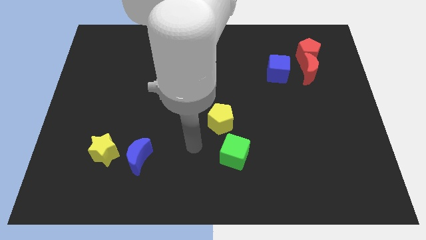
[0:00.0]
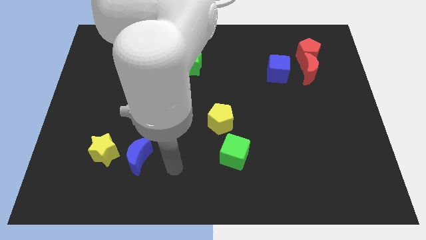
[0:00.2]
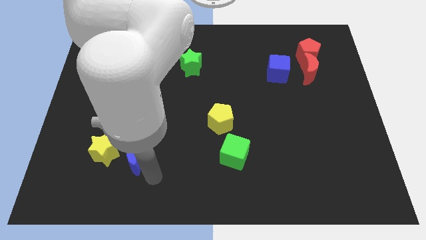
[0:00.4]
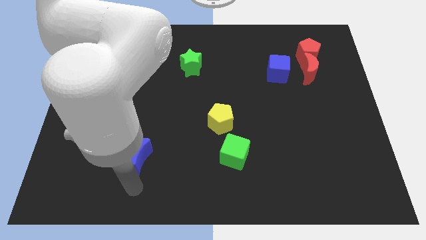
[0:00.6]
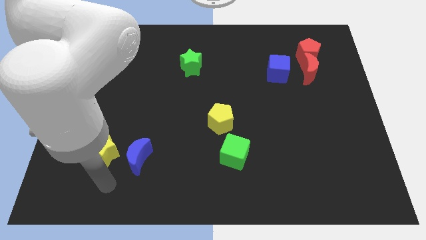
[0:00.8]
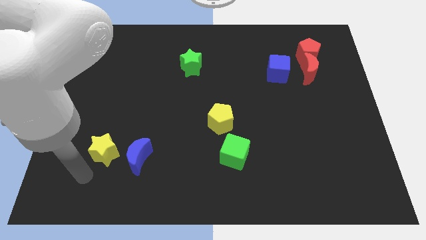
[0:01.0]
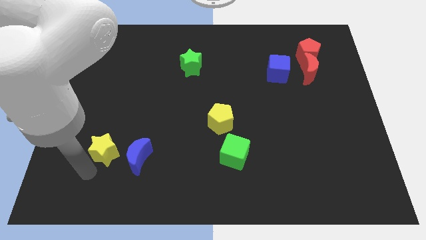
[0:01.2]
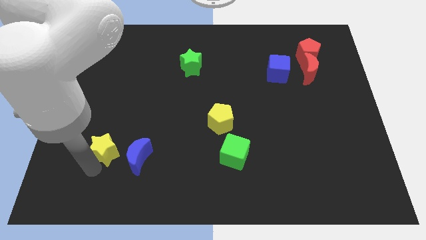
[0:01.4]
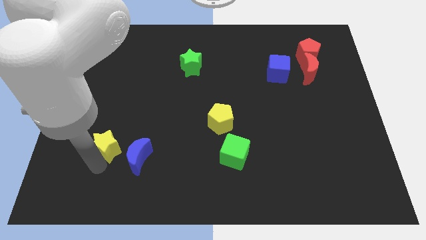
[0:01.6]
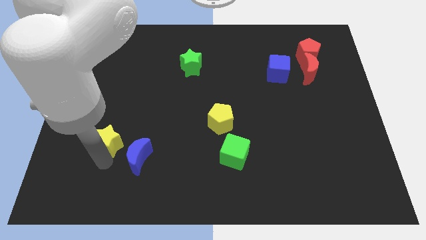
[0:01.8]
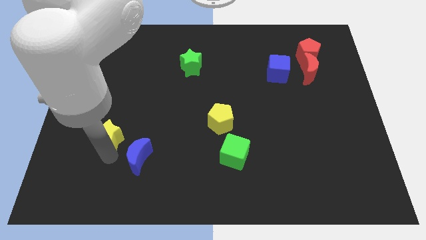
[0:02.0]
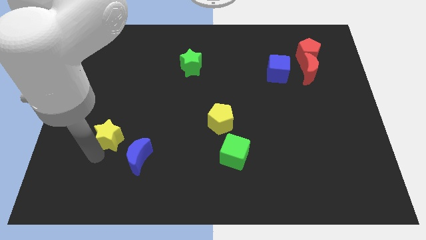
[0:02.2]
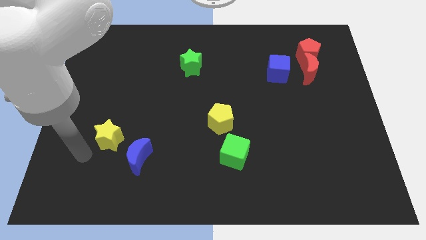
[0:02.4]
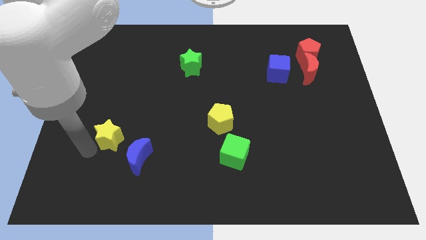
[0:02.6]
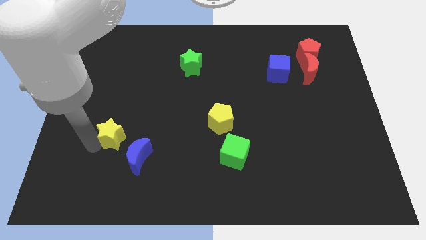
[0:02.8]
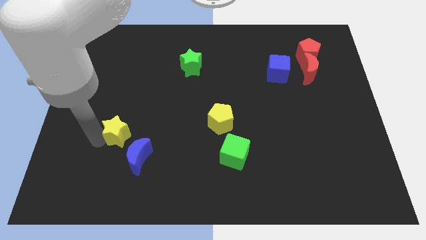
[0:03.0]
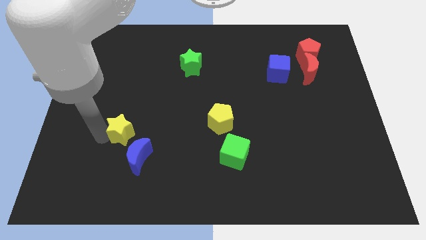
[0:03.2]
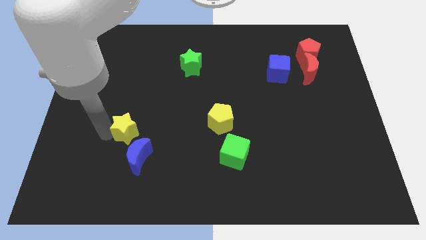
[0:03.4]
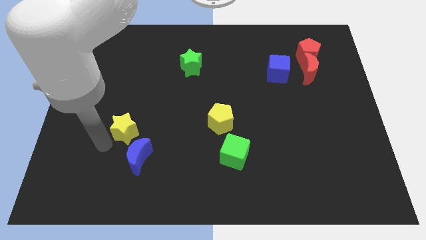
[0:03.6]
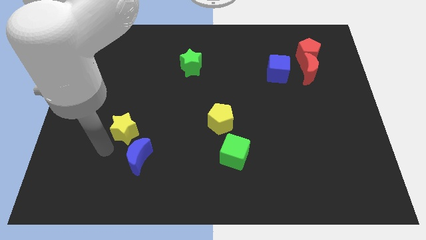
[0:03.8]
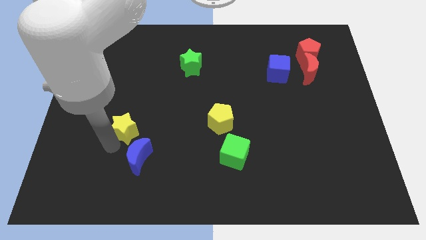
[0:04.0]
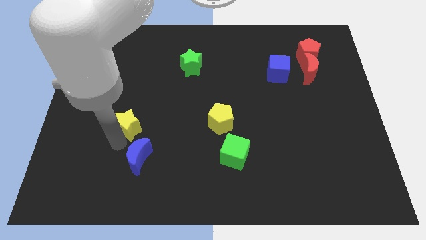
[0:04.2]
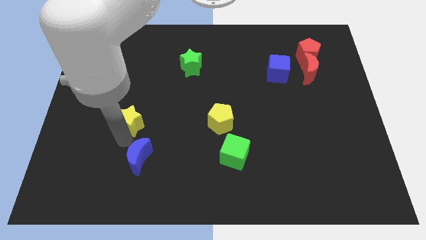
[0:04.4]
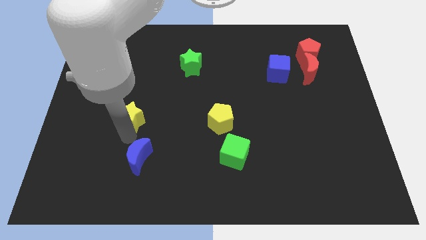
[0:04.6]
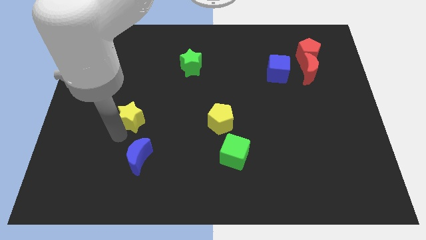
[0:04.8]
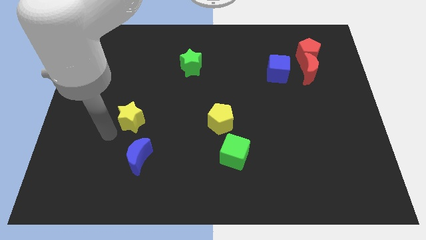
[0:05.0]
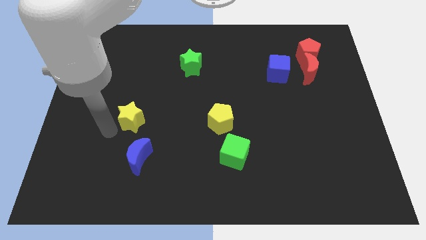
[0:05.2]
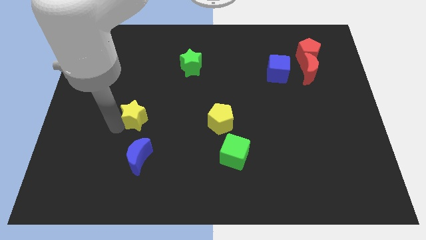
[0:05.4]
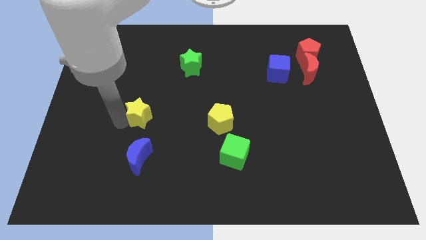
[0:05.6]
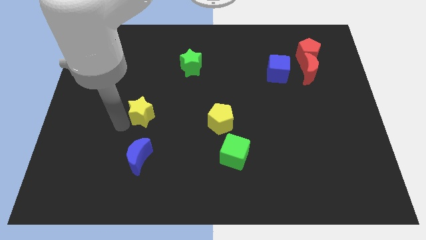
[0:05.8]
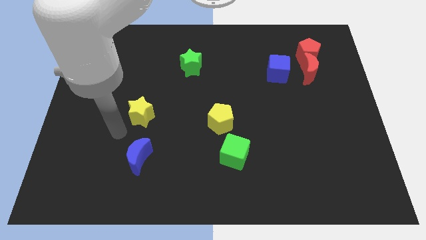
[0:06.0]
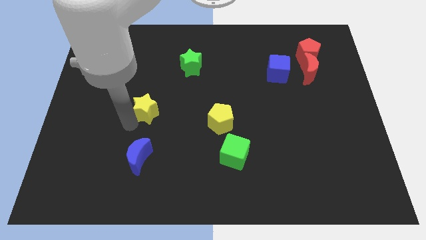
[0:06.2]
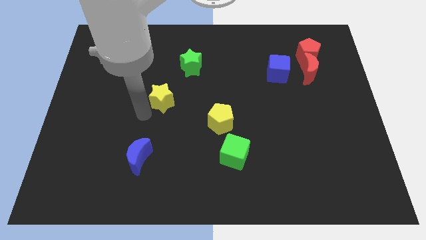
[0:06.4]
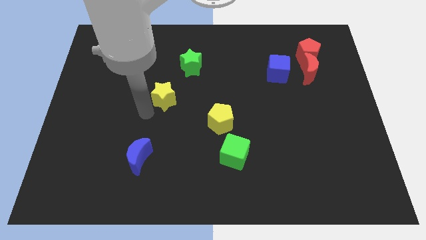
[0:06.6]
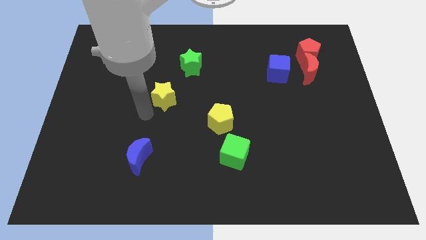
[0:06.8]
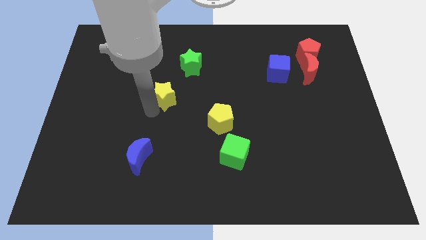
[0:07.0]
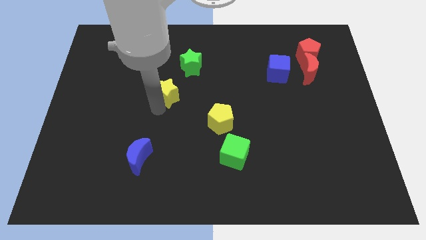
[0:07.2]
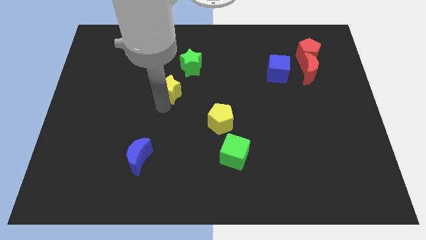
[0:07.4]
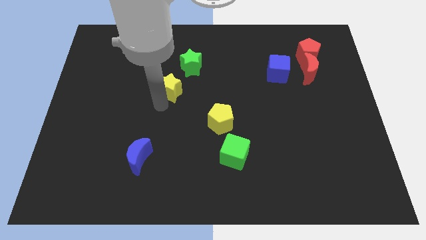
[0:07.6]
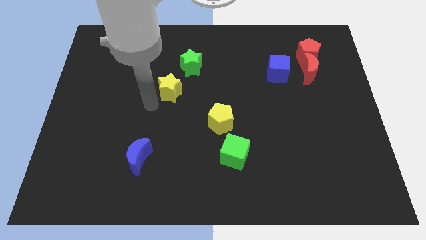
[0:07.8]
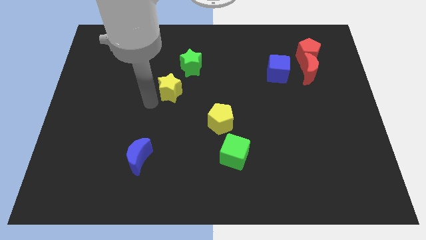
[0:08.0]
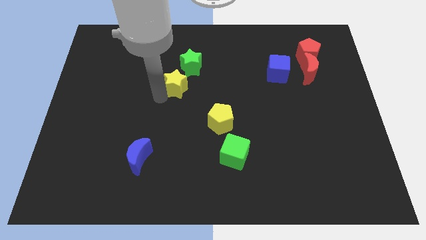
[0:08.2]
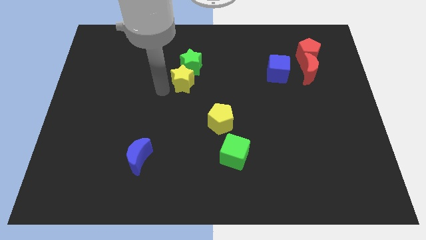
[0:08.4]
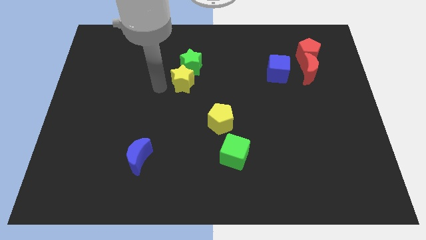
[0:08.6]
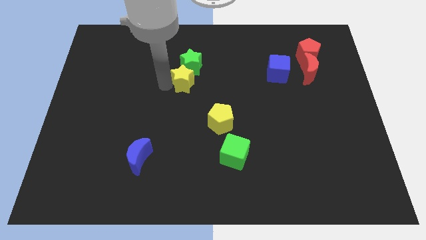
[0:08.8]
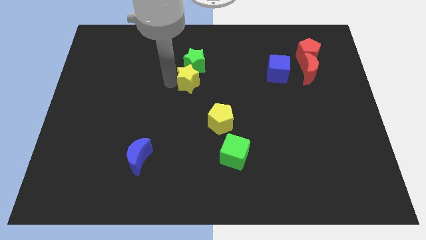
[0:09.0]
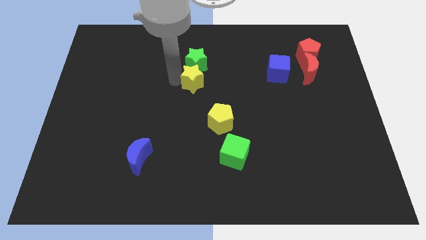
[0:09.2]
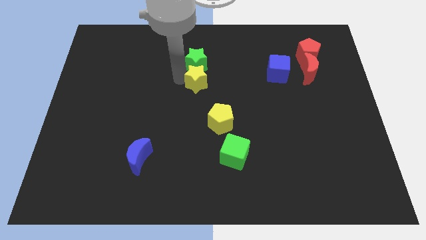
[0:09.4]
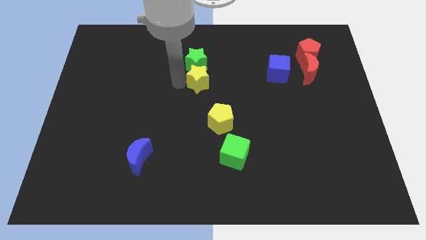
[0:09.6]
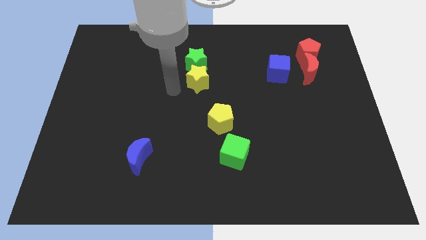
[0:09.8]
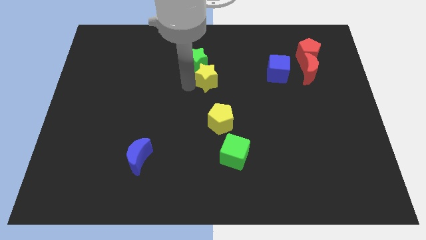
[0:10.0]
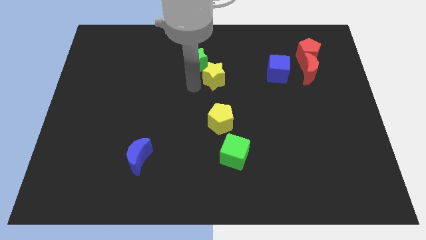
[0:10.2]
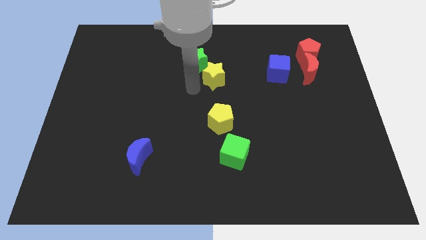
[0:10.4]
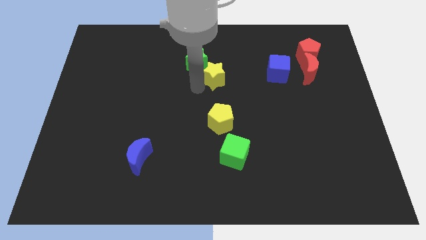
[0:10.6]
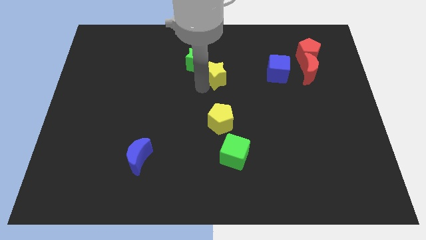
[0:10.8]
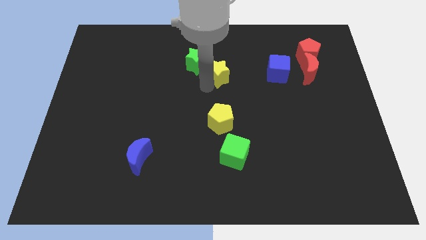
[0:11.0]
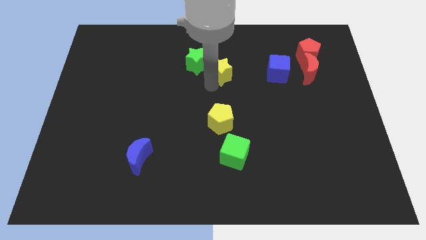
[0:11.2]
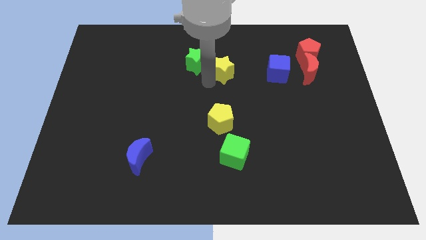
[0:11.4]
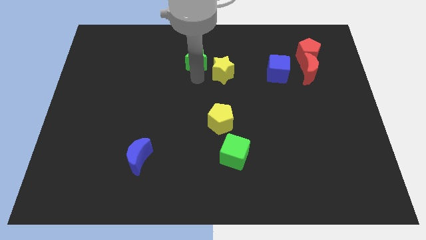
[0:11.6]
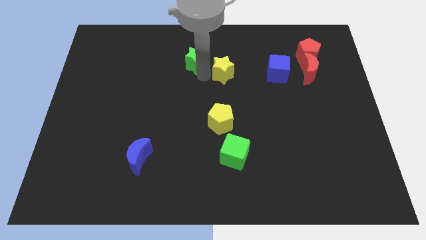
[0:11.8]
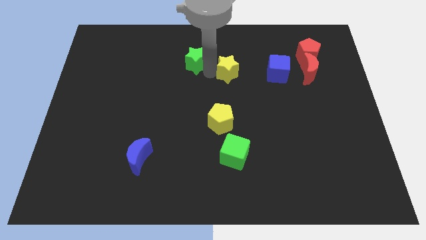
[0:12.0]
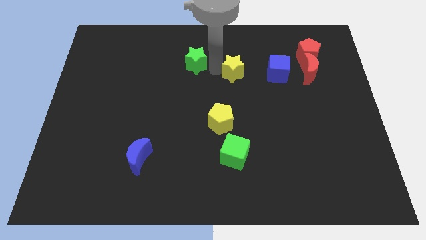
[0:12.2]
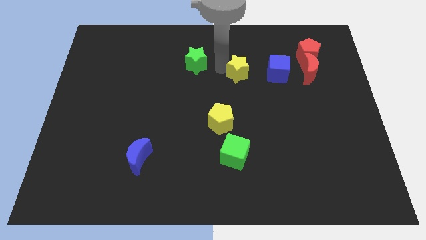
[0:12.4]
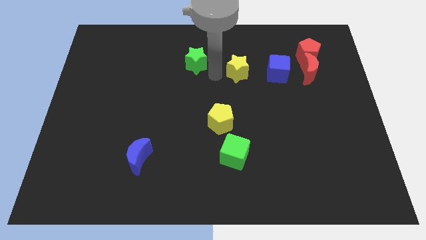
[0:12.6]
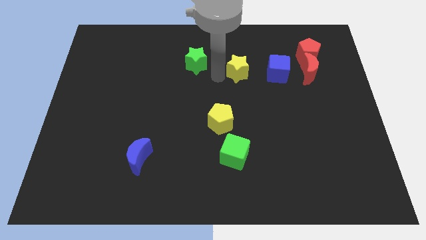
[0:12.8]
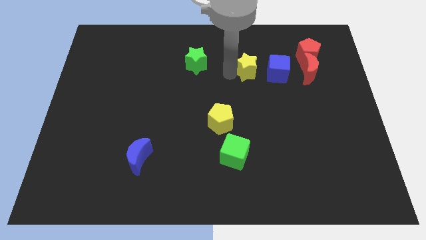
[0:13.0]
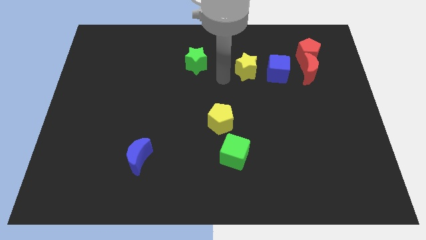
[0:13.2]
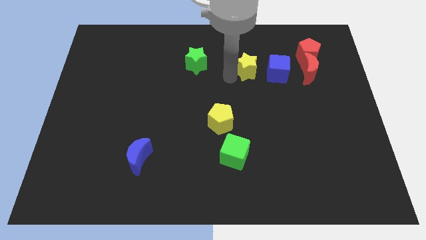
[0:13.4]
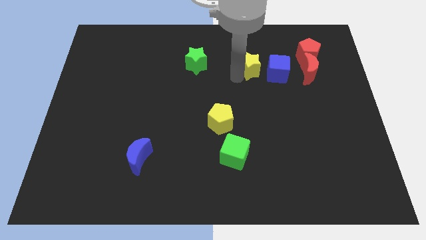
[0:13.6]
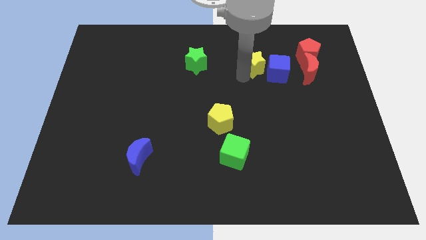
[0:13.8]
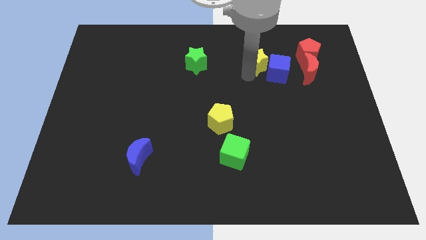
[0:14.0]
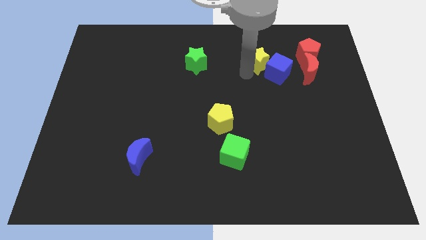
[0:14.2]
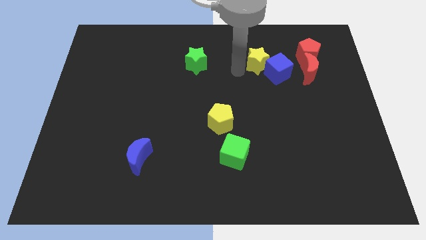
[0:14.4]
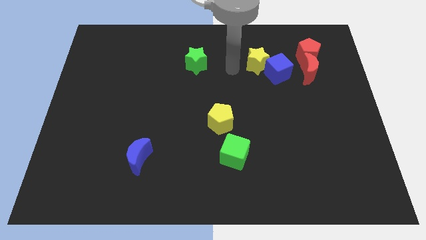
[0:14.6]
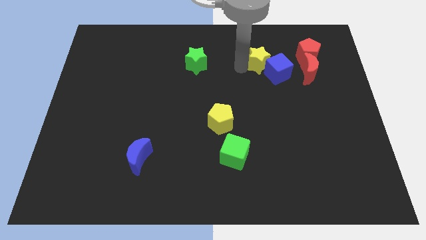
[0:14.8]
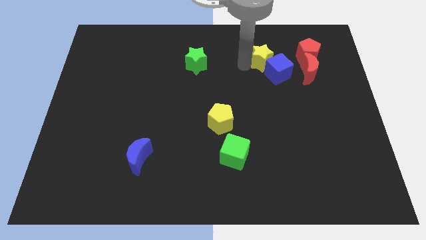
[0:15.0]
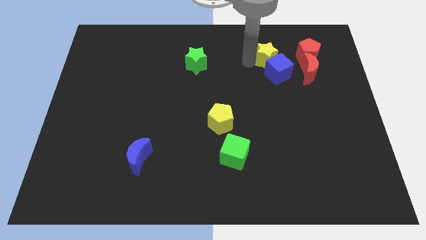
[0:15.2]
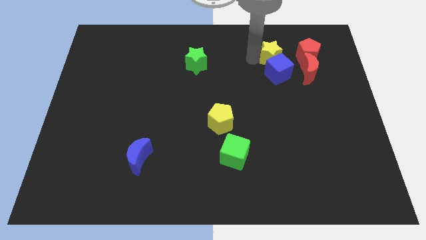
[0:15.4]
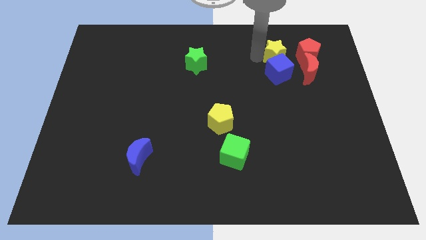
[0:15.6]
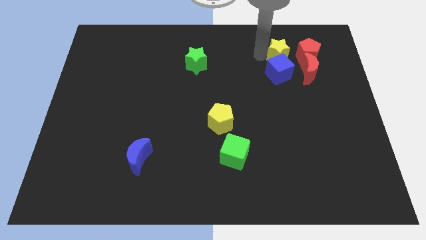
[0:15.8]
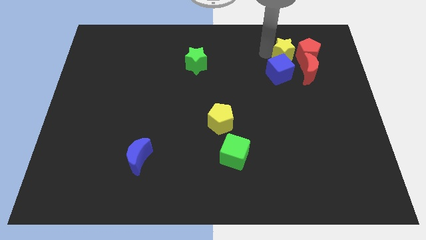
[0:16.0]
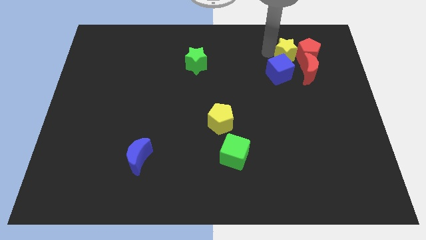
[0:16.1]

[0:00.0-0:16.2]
push the yellow star next to the red pentagon
